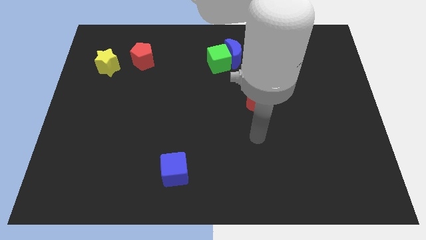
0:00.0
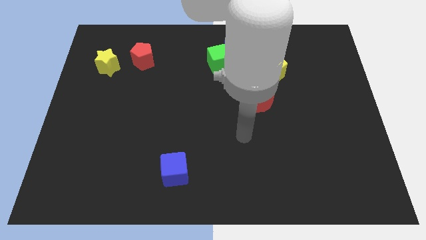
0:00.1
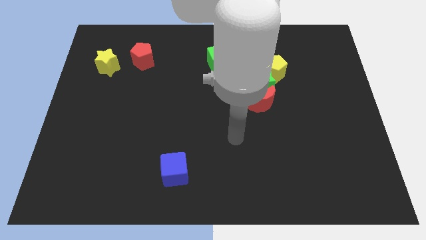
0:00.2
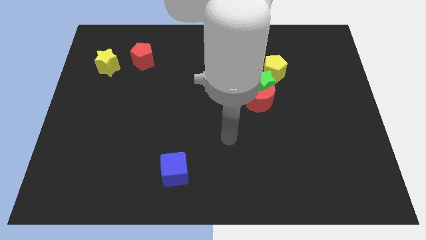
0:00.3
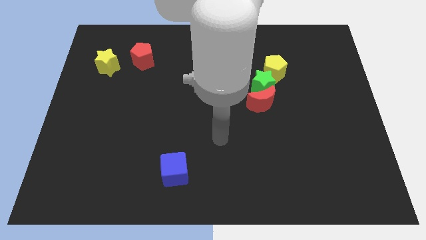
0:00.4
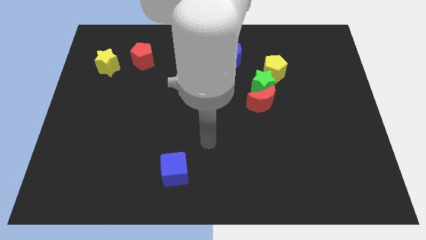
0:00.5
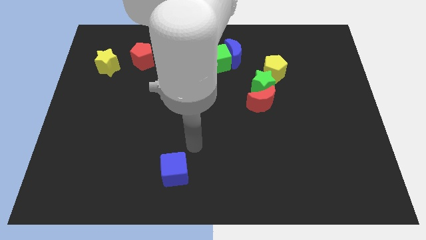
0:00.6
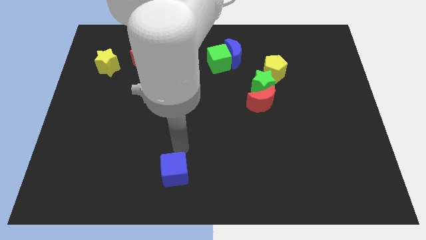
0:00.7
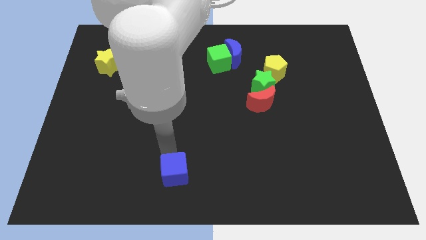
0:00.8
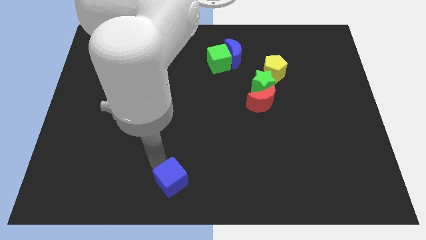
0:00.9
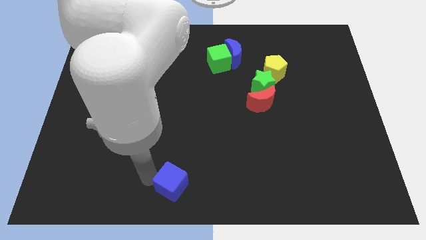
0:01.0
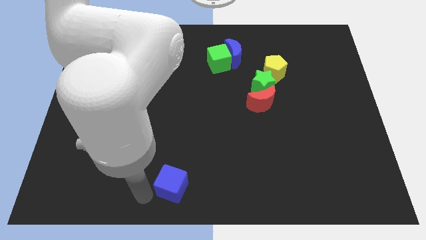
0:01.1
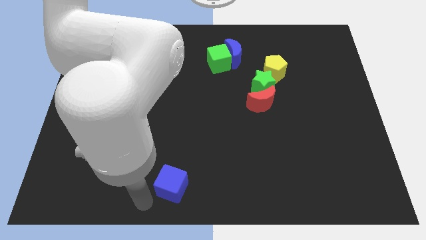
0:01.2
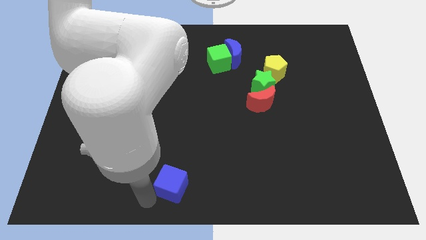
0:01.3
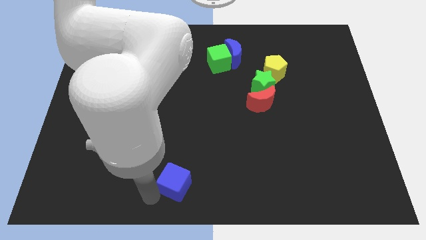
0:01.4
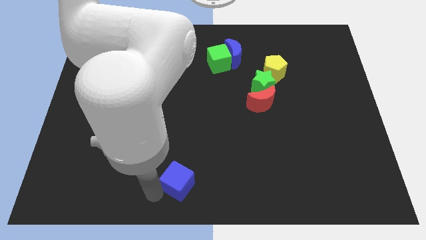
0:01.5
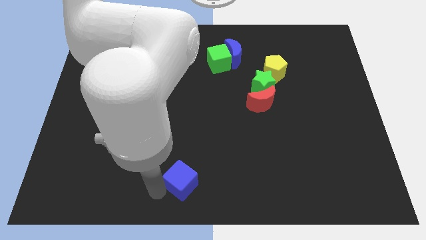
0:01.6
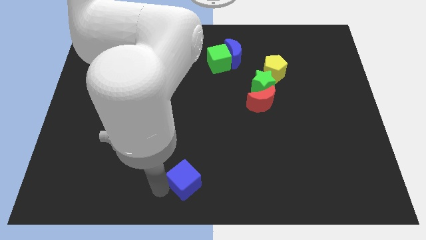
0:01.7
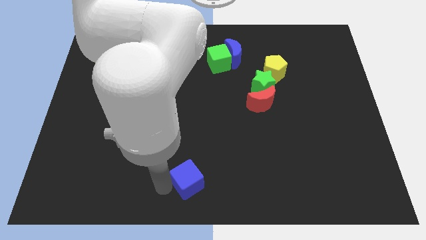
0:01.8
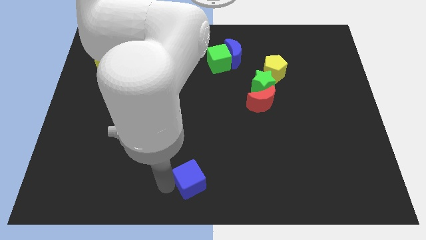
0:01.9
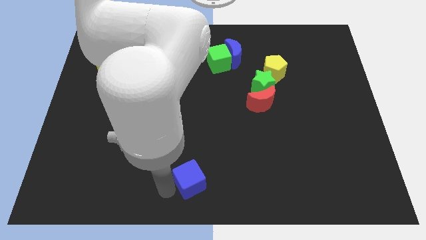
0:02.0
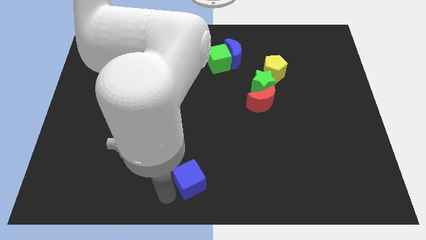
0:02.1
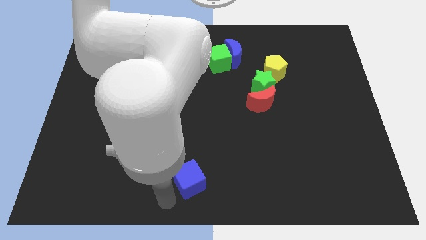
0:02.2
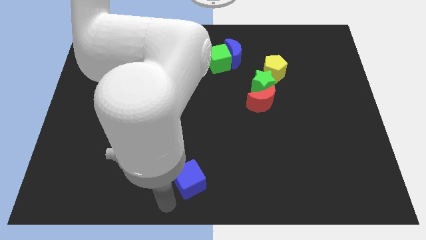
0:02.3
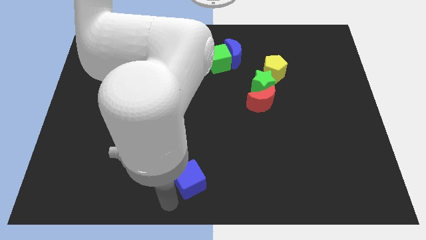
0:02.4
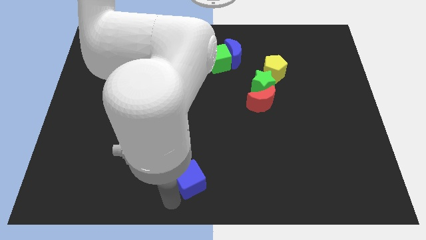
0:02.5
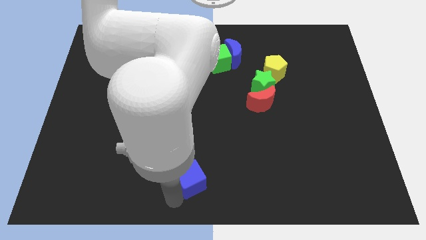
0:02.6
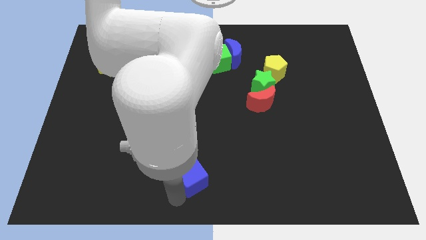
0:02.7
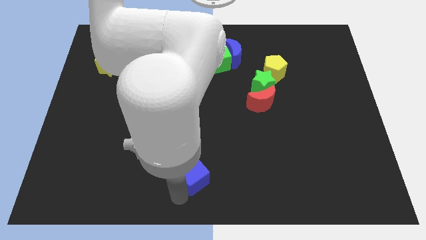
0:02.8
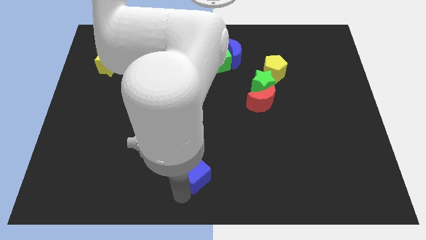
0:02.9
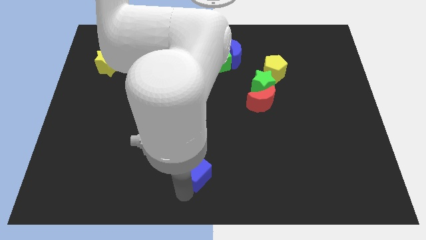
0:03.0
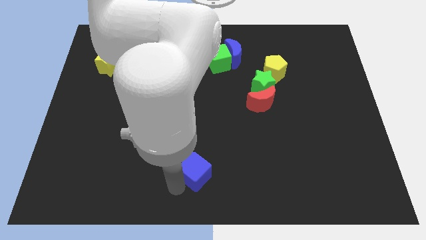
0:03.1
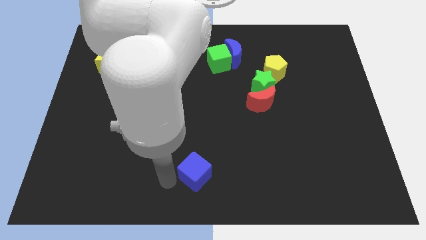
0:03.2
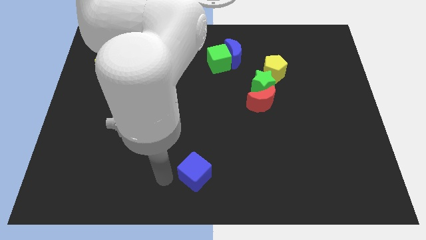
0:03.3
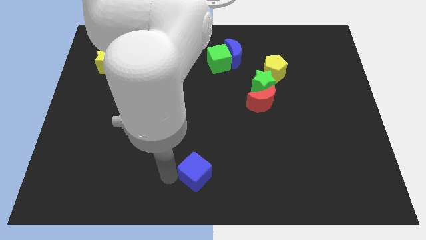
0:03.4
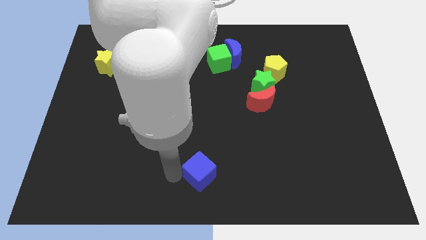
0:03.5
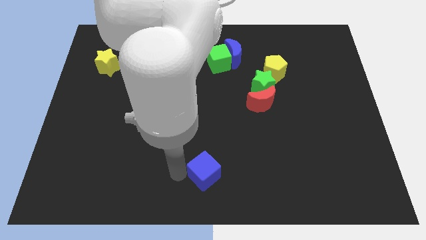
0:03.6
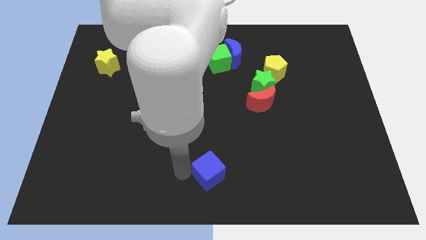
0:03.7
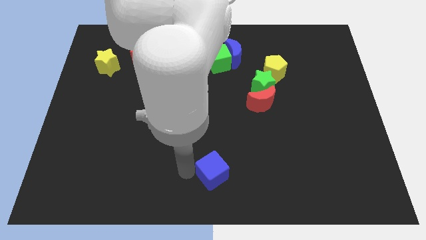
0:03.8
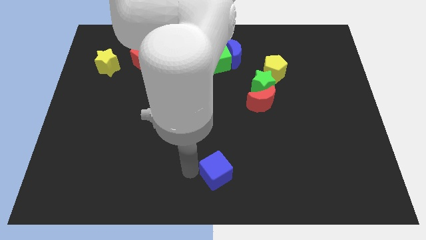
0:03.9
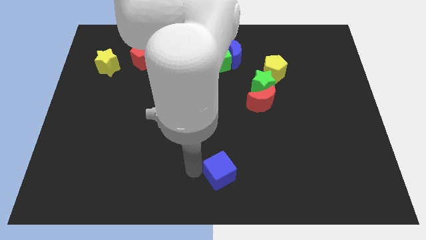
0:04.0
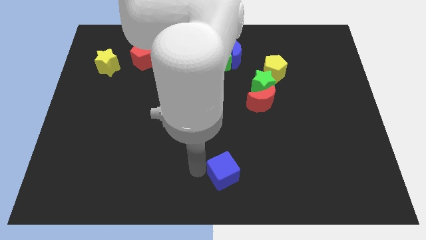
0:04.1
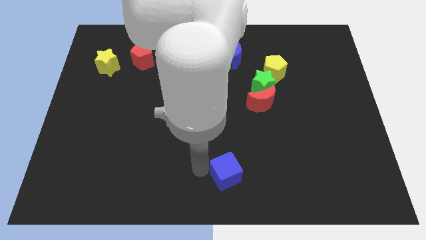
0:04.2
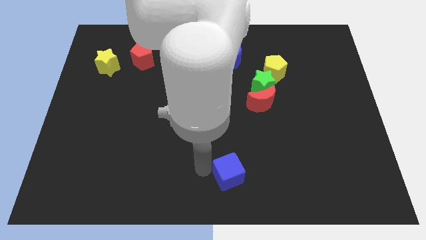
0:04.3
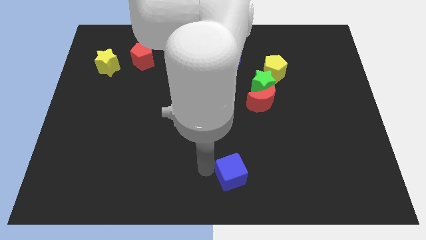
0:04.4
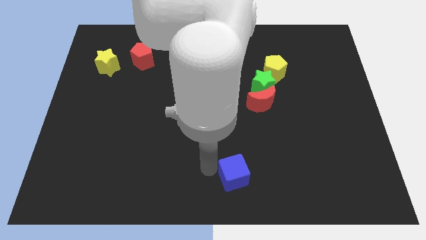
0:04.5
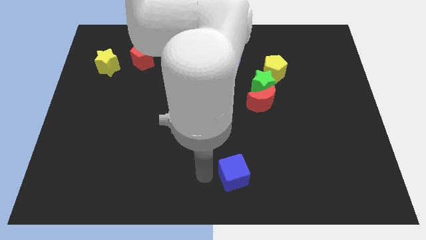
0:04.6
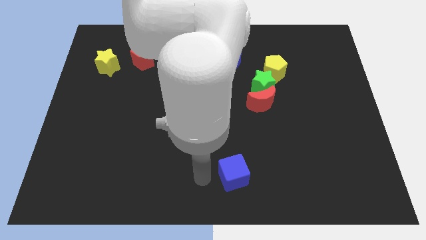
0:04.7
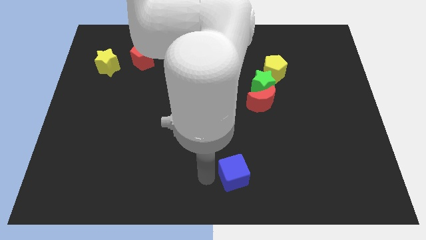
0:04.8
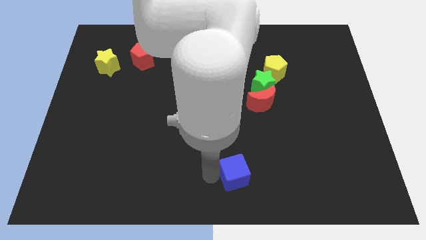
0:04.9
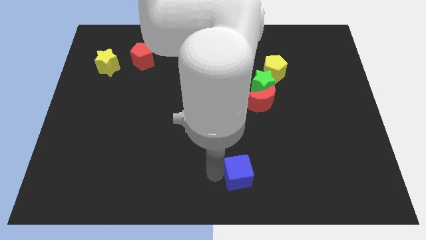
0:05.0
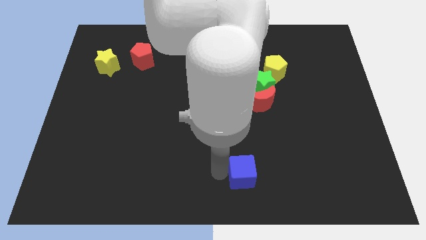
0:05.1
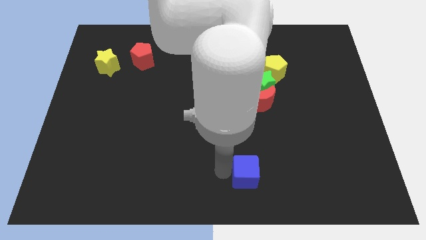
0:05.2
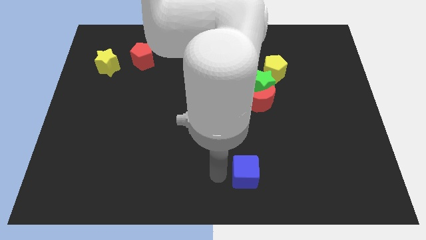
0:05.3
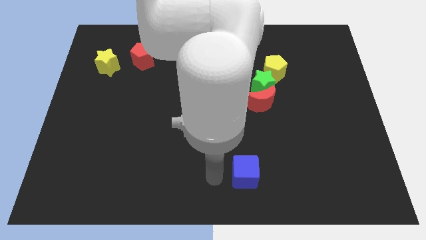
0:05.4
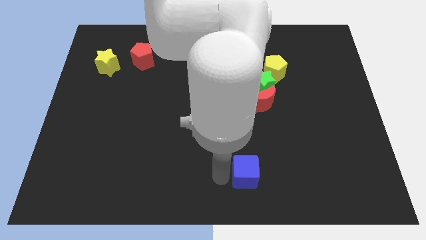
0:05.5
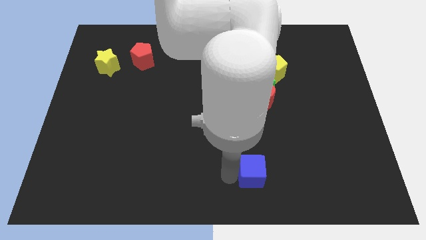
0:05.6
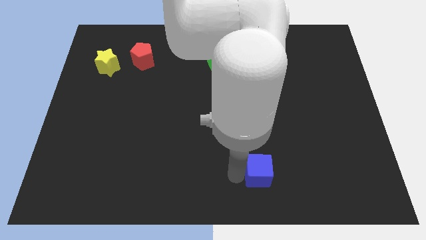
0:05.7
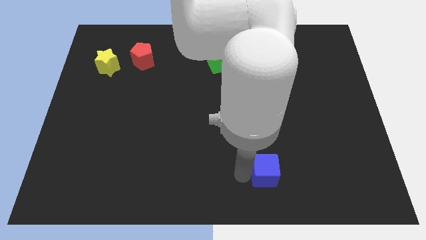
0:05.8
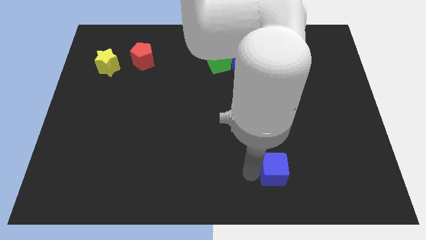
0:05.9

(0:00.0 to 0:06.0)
push the blue cube right

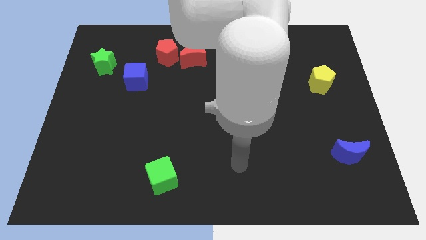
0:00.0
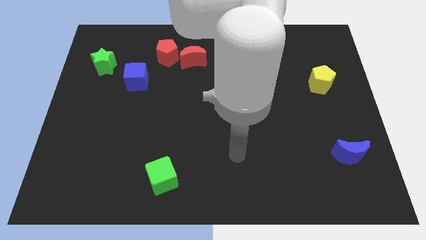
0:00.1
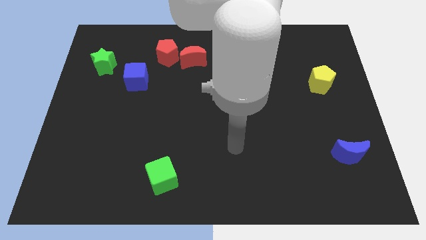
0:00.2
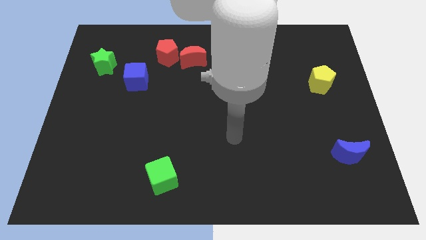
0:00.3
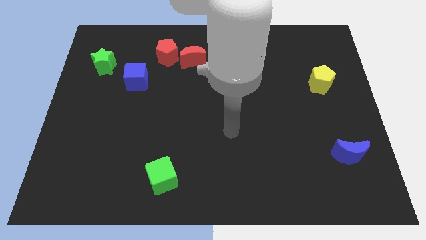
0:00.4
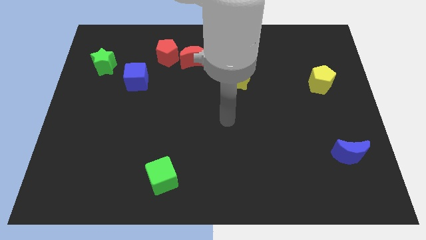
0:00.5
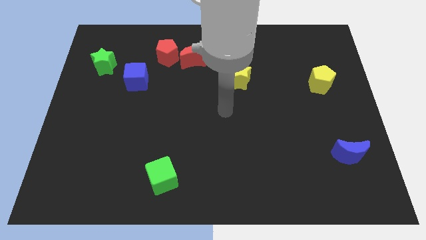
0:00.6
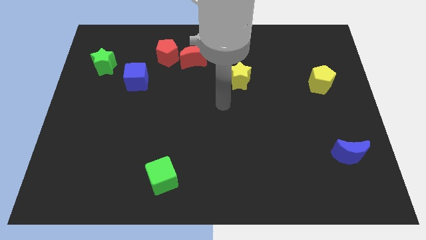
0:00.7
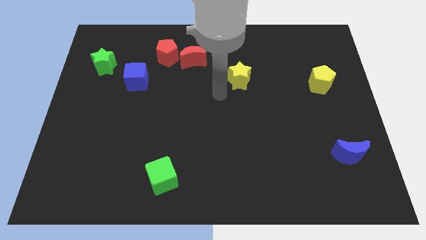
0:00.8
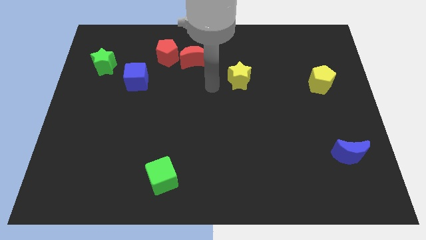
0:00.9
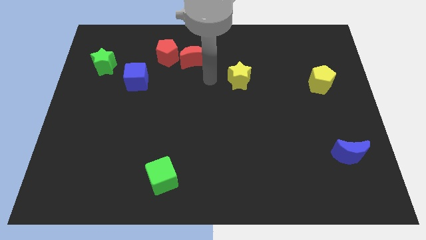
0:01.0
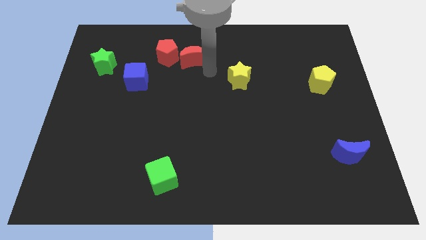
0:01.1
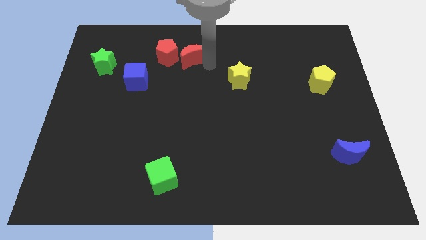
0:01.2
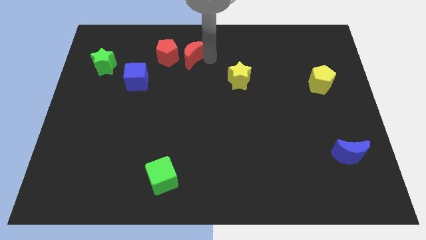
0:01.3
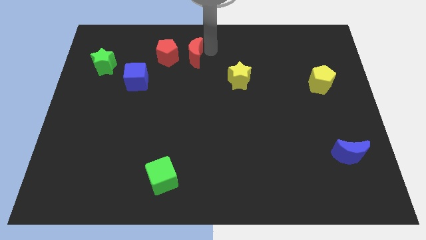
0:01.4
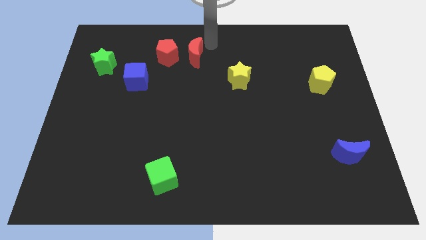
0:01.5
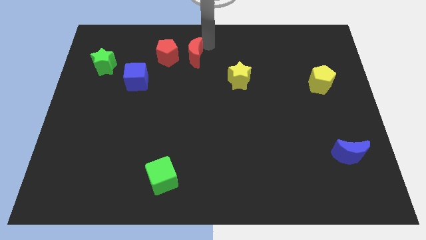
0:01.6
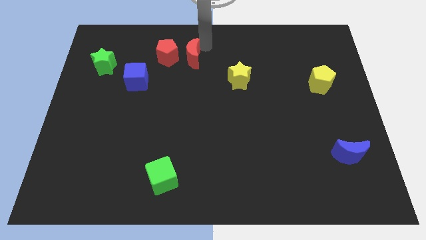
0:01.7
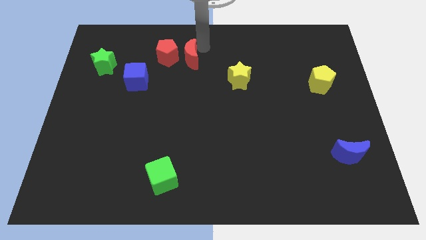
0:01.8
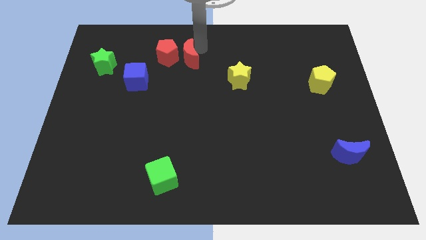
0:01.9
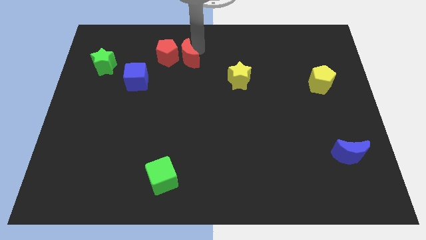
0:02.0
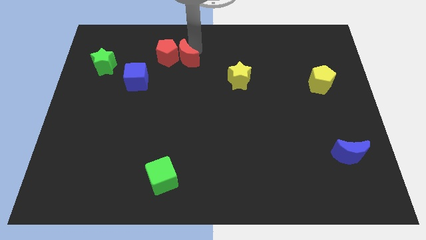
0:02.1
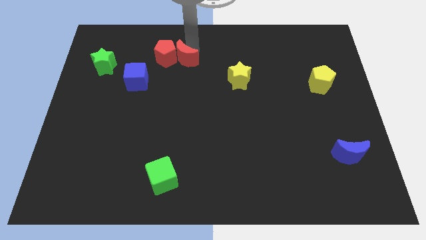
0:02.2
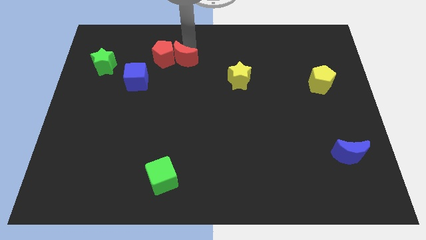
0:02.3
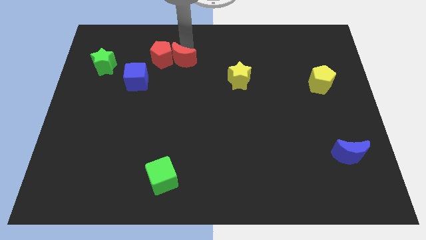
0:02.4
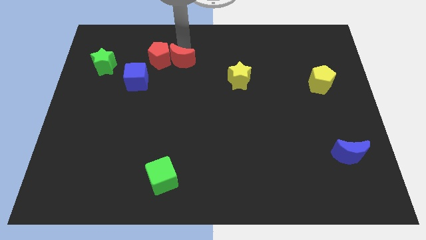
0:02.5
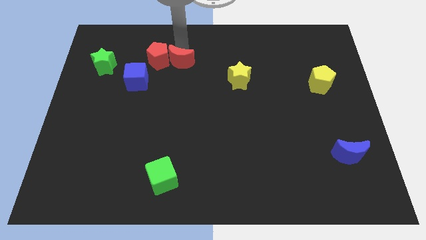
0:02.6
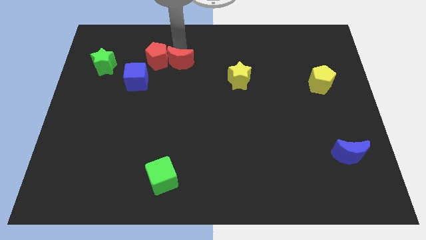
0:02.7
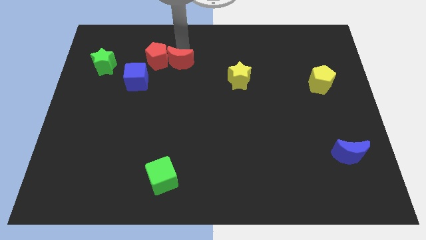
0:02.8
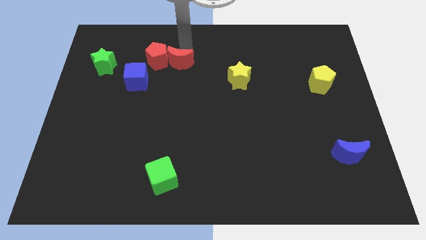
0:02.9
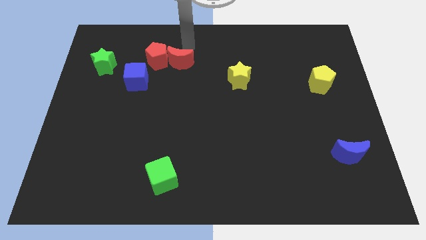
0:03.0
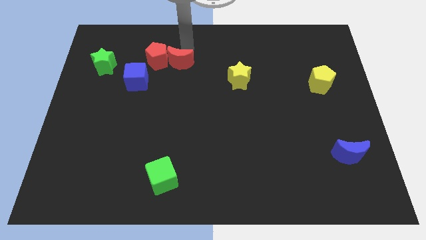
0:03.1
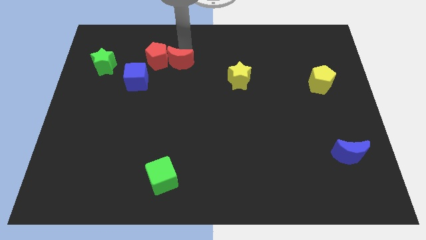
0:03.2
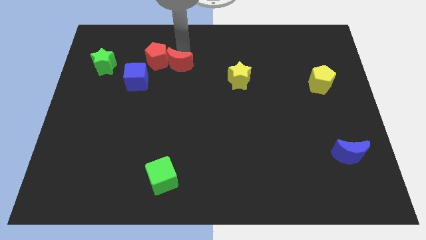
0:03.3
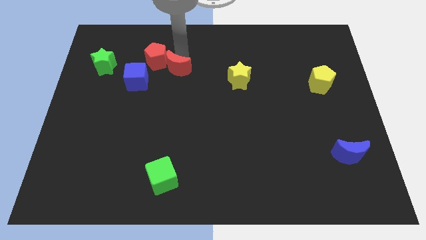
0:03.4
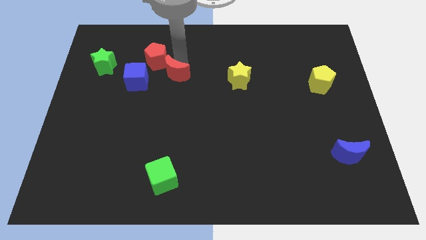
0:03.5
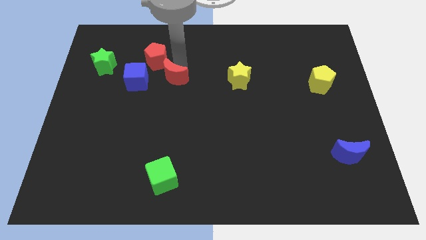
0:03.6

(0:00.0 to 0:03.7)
slightly slide the red moon downwards and to the left diagonally
